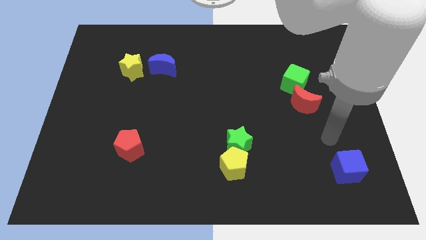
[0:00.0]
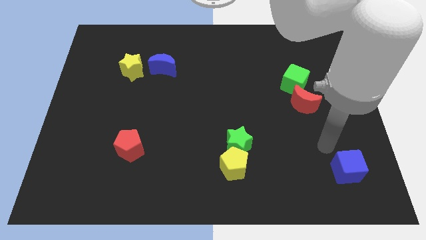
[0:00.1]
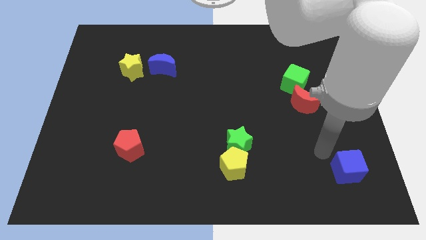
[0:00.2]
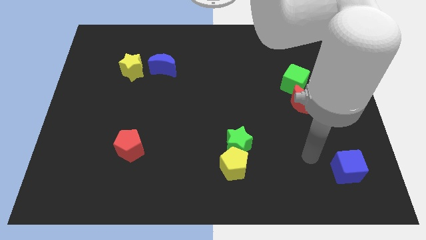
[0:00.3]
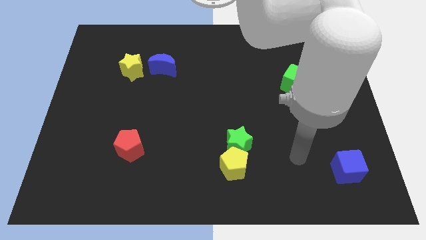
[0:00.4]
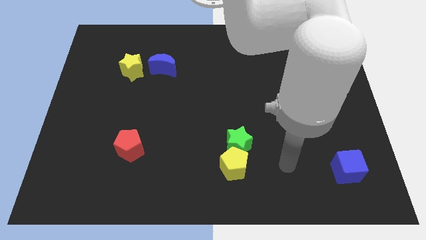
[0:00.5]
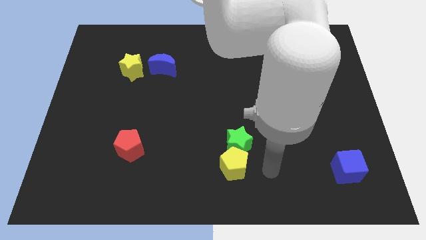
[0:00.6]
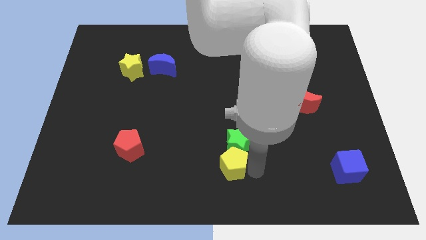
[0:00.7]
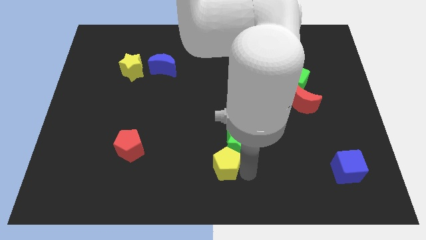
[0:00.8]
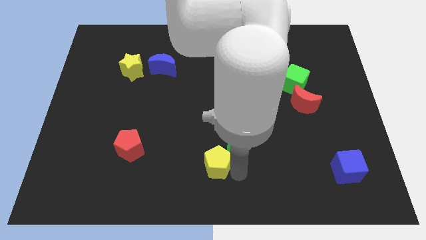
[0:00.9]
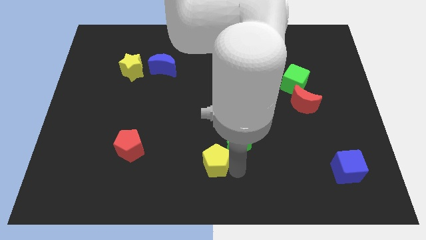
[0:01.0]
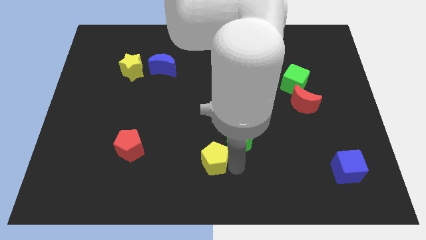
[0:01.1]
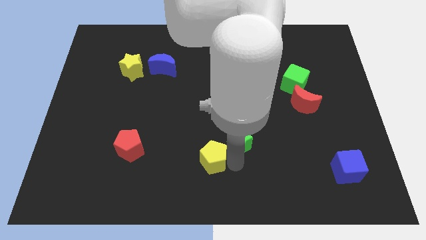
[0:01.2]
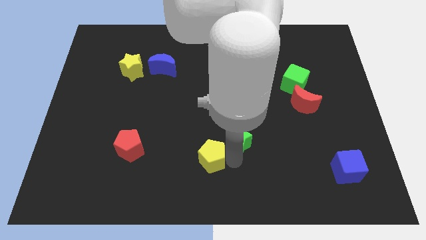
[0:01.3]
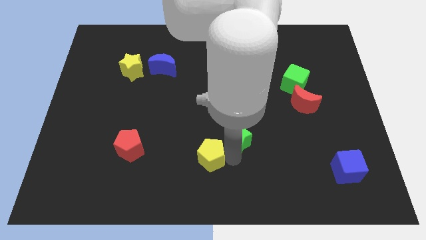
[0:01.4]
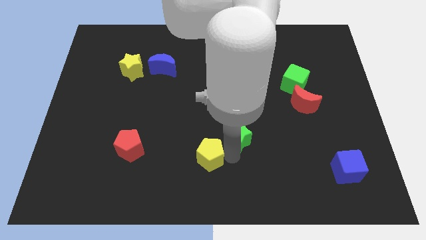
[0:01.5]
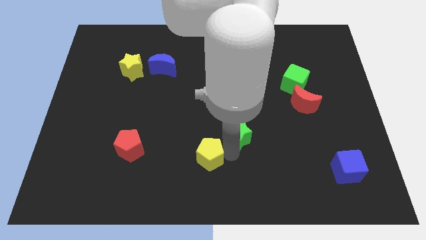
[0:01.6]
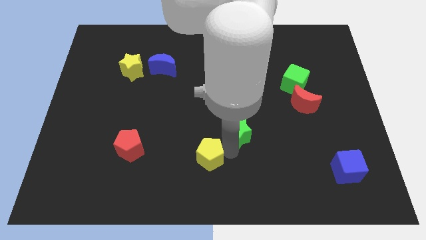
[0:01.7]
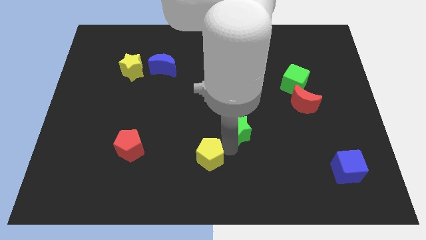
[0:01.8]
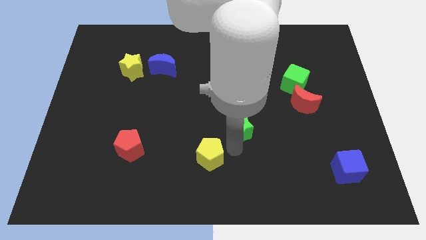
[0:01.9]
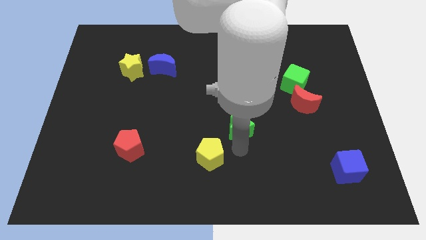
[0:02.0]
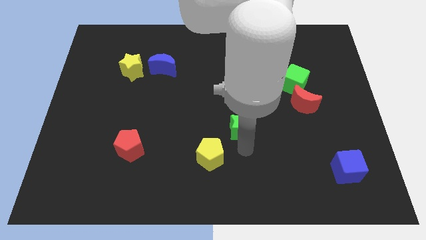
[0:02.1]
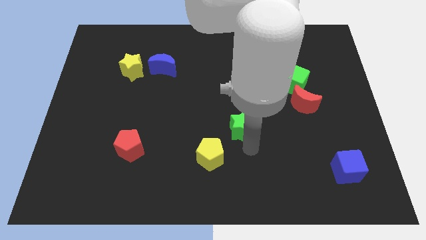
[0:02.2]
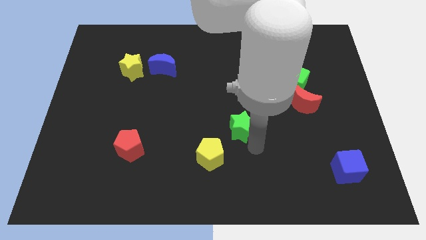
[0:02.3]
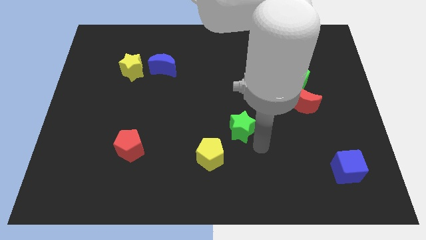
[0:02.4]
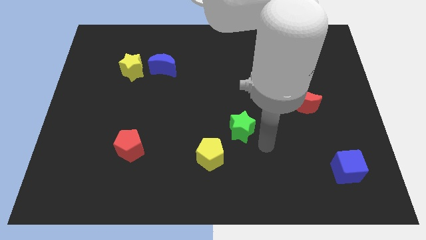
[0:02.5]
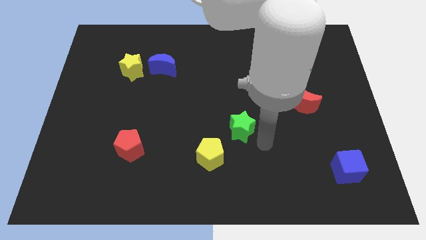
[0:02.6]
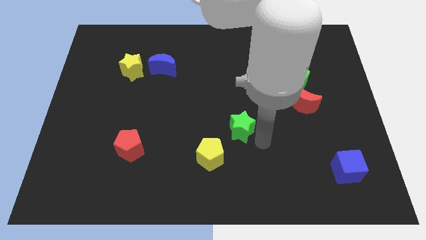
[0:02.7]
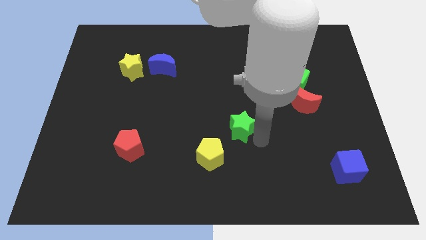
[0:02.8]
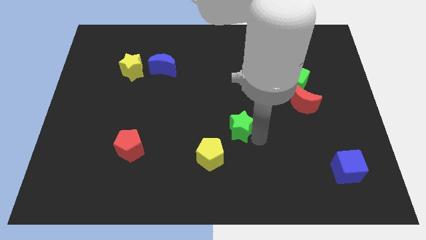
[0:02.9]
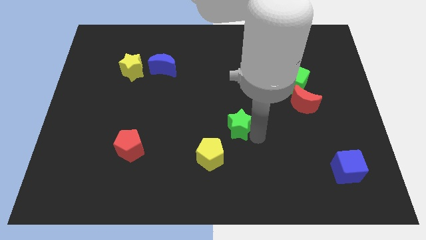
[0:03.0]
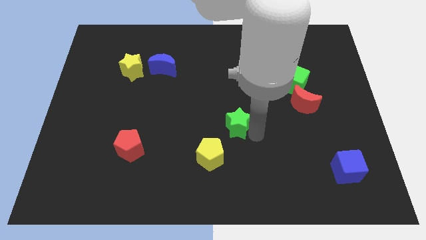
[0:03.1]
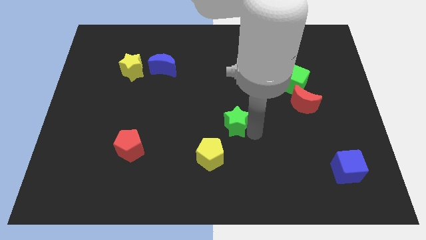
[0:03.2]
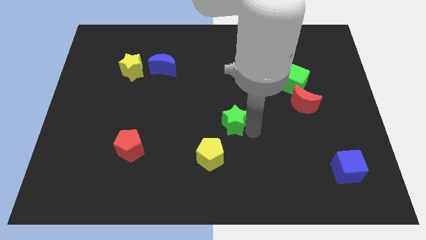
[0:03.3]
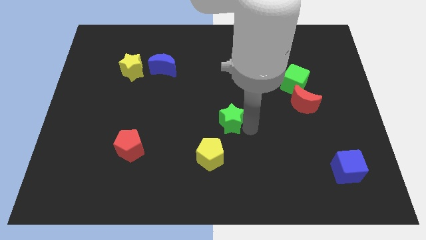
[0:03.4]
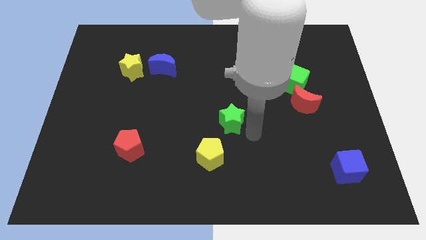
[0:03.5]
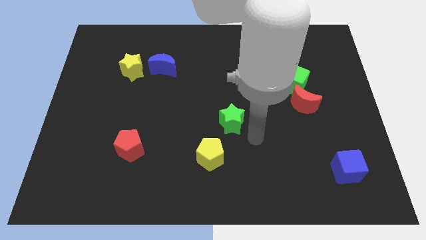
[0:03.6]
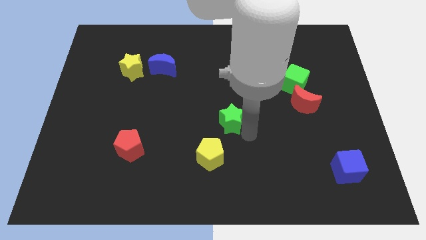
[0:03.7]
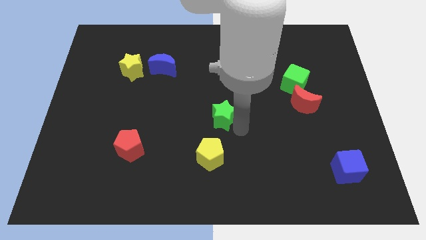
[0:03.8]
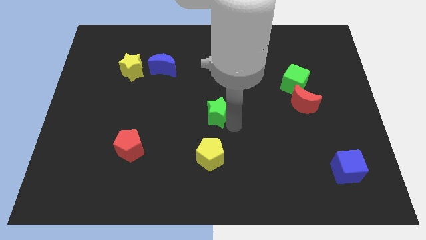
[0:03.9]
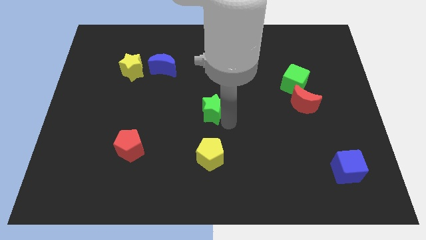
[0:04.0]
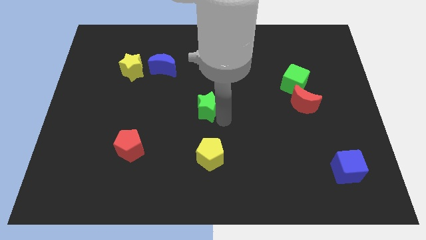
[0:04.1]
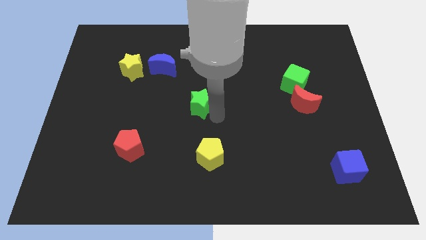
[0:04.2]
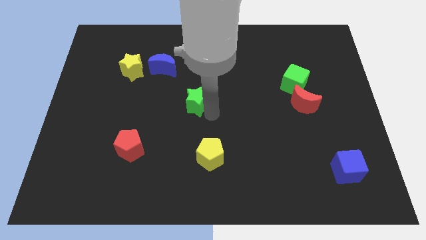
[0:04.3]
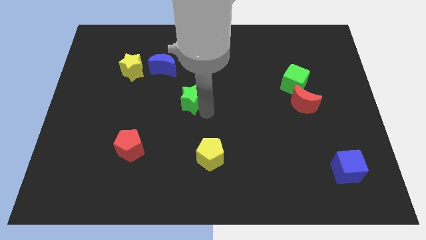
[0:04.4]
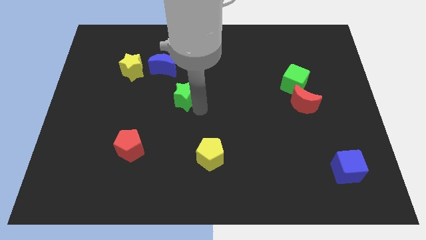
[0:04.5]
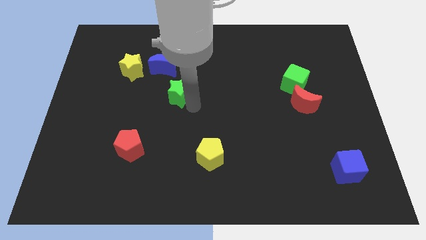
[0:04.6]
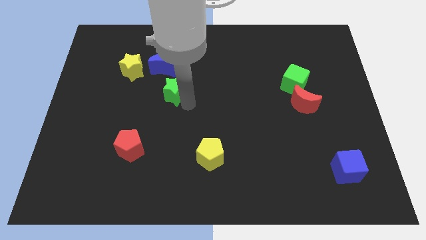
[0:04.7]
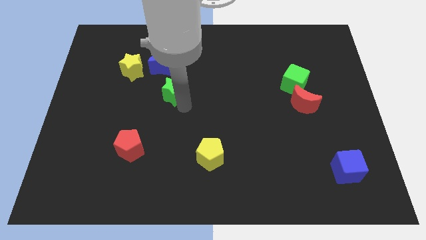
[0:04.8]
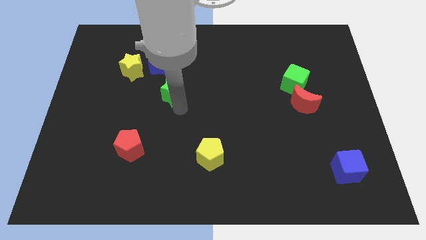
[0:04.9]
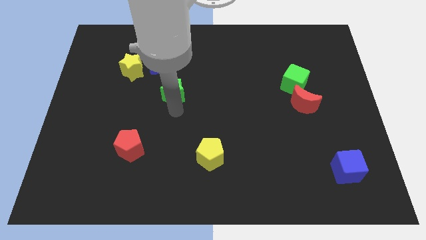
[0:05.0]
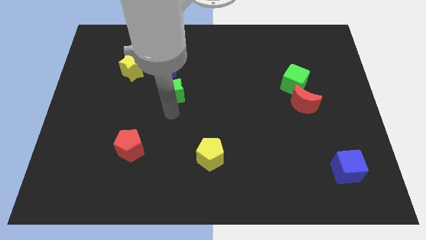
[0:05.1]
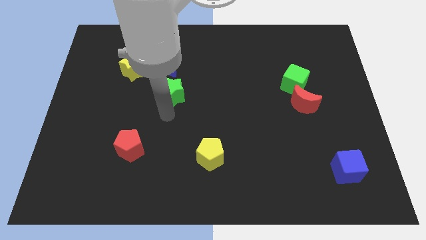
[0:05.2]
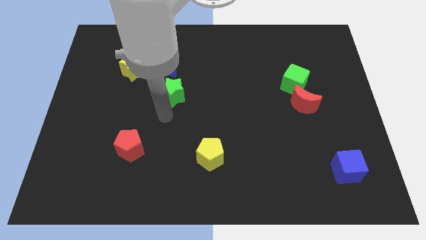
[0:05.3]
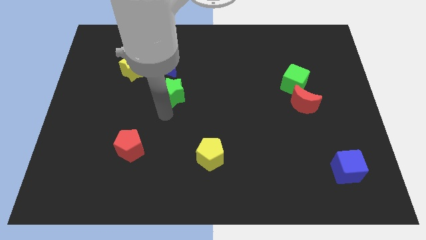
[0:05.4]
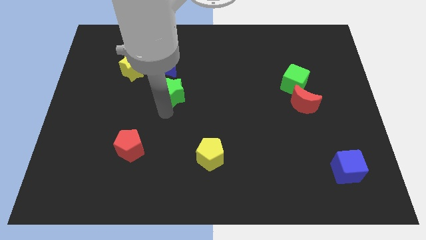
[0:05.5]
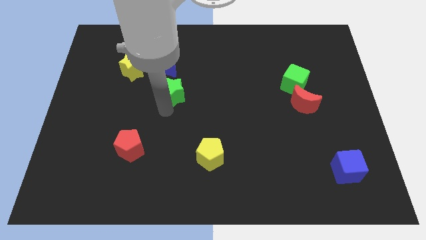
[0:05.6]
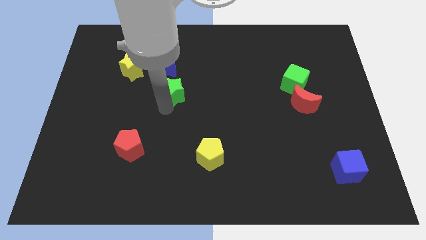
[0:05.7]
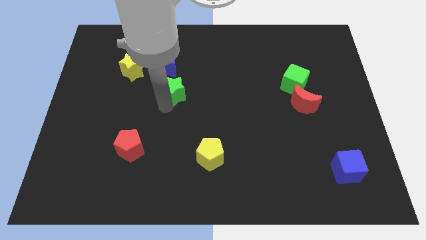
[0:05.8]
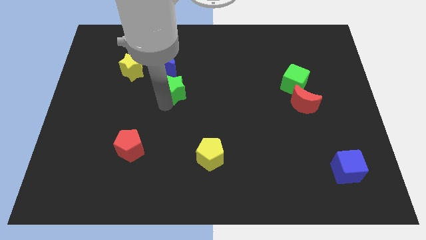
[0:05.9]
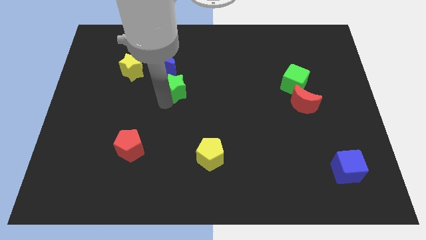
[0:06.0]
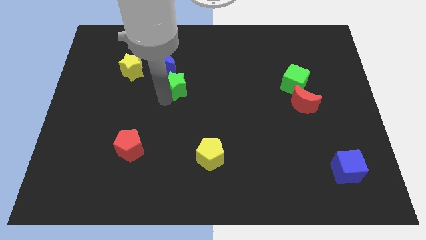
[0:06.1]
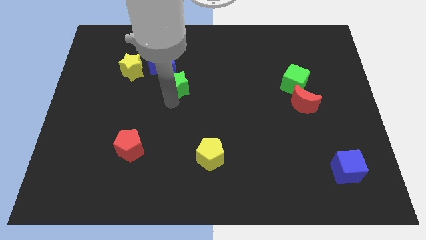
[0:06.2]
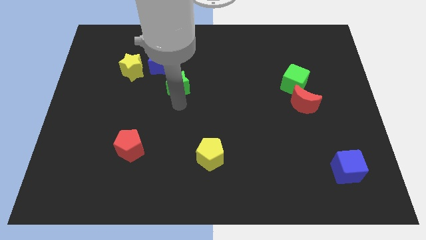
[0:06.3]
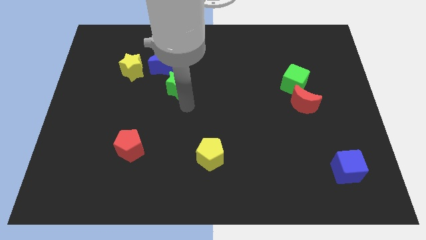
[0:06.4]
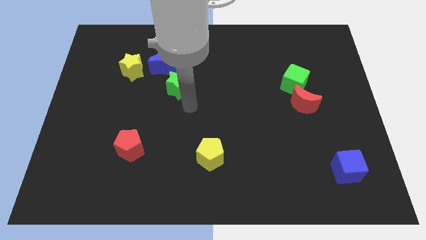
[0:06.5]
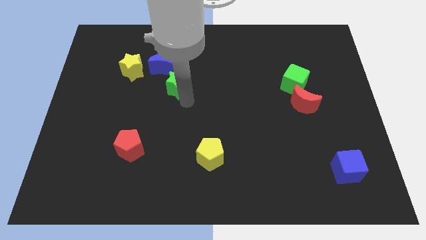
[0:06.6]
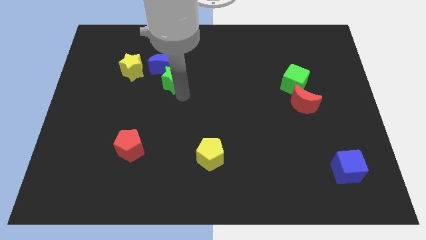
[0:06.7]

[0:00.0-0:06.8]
slide the green star next to the blue moon

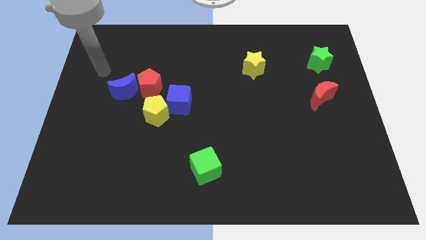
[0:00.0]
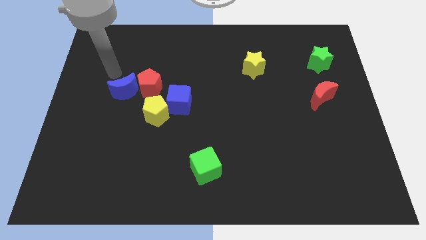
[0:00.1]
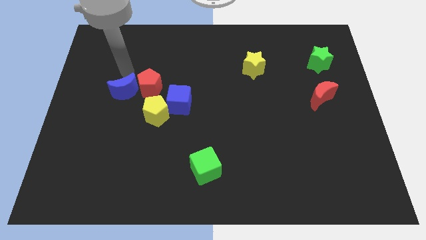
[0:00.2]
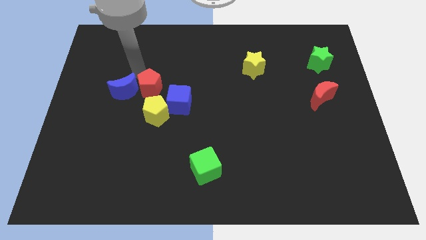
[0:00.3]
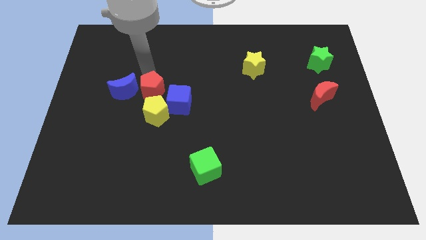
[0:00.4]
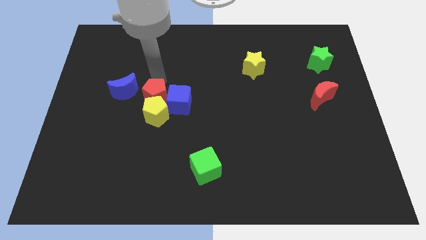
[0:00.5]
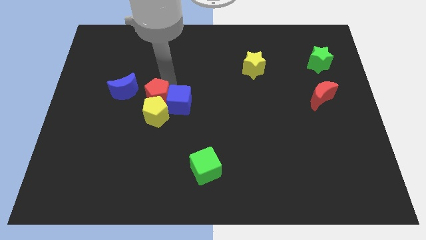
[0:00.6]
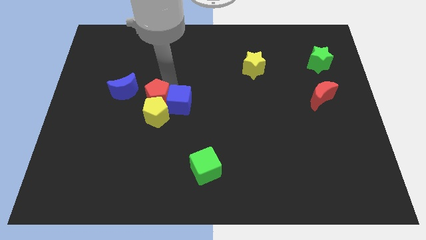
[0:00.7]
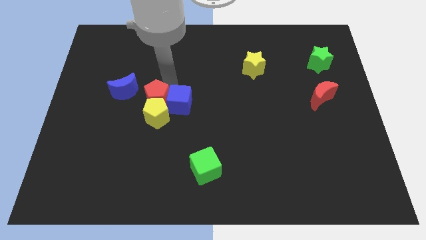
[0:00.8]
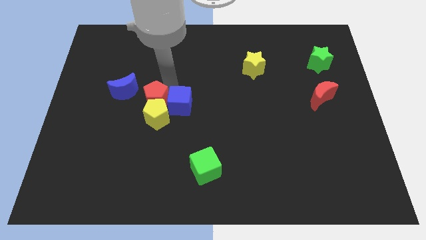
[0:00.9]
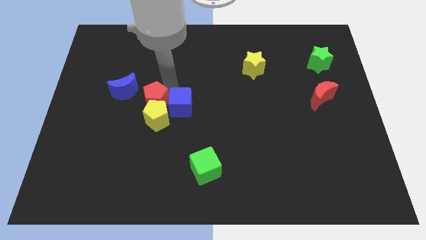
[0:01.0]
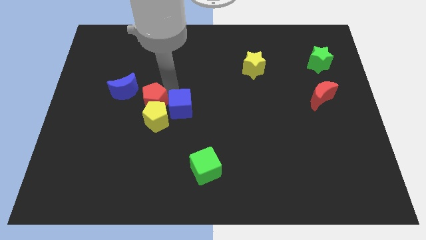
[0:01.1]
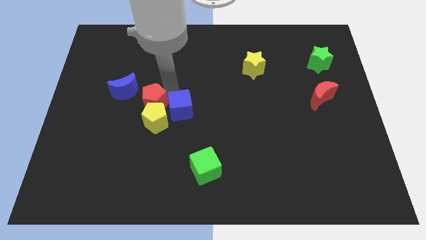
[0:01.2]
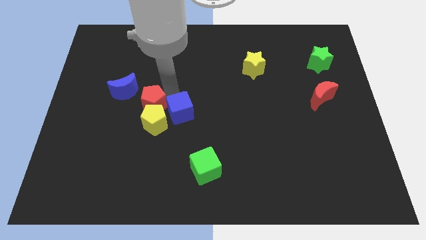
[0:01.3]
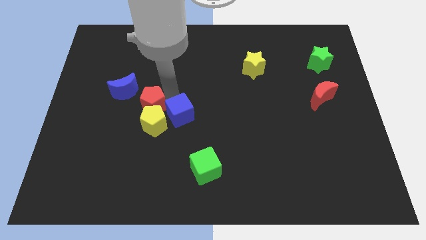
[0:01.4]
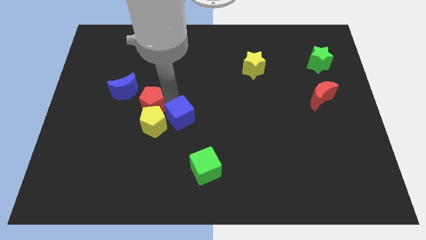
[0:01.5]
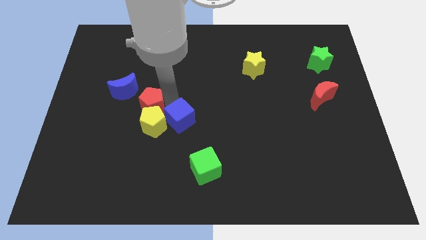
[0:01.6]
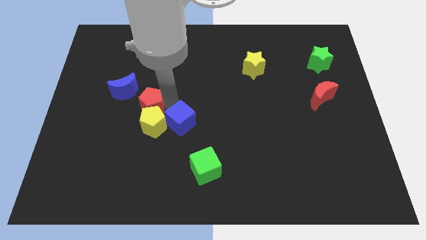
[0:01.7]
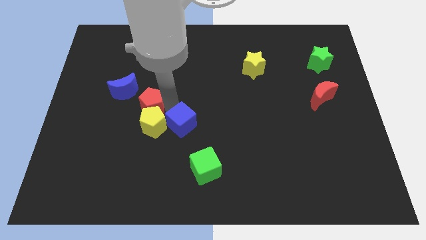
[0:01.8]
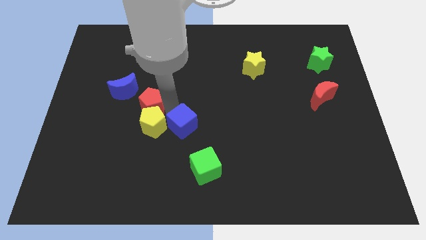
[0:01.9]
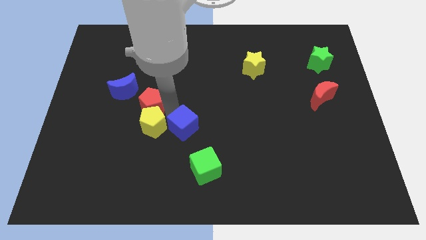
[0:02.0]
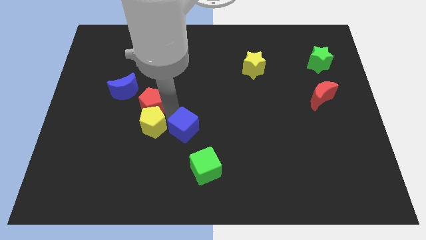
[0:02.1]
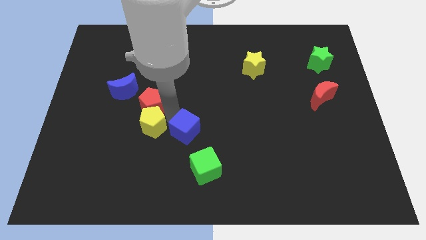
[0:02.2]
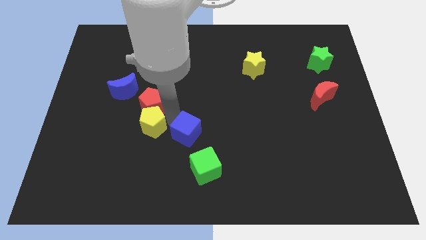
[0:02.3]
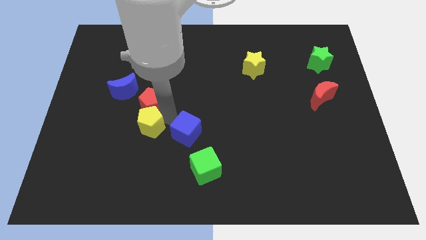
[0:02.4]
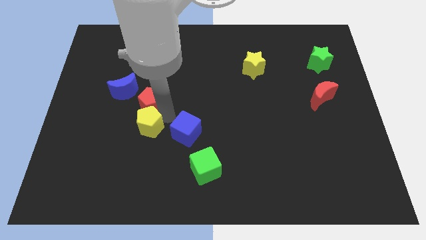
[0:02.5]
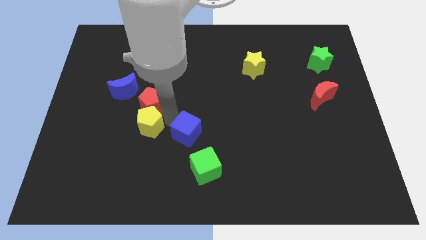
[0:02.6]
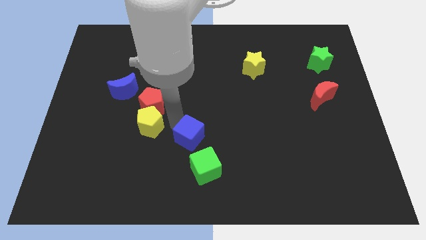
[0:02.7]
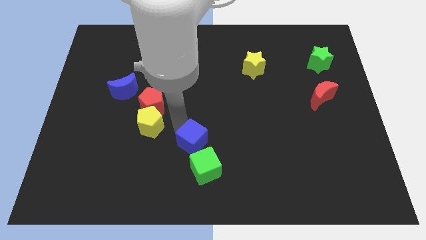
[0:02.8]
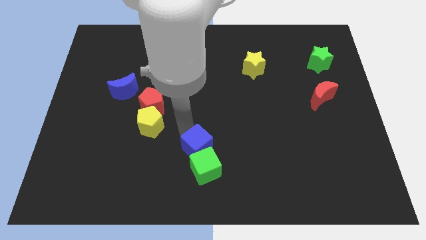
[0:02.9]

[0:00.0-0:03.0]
push the blue cube towards the green cube
